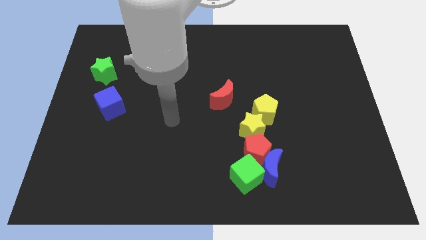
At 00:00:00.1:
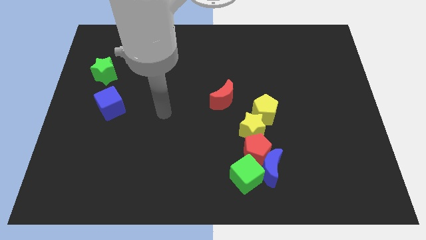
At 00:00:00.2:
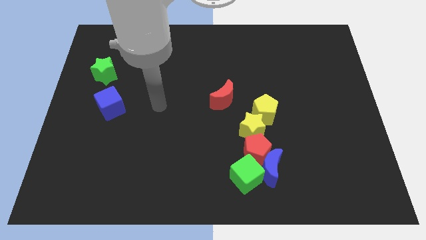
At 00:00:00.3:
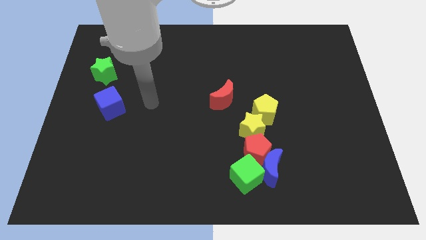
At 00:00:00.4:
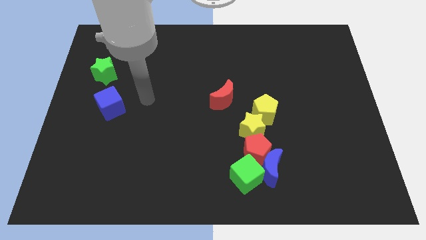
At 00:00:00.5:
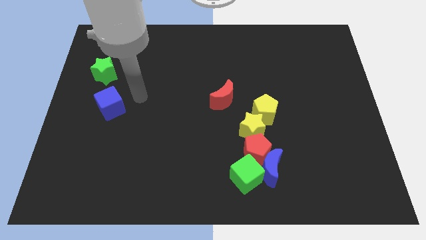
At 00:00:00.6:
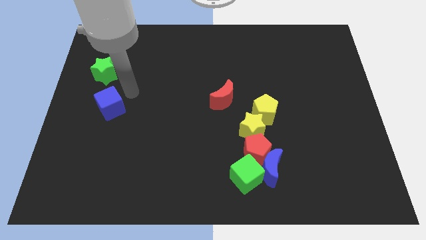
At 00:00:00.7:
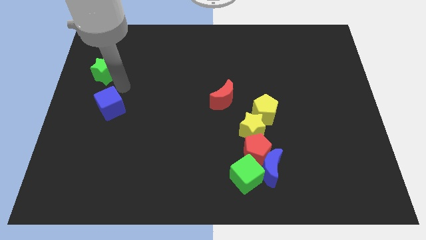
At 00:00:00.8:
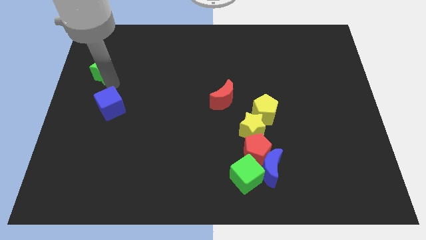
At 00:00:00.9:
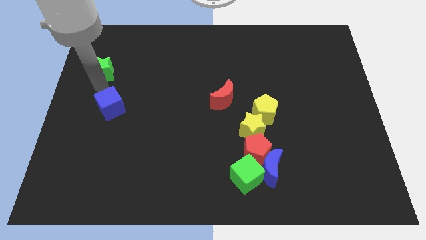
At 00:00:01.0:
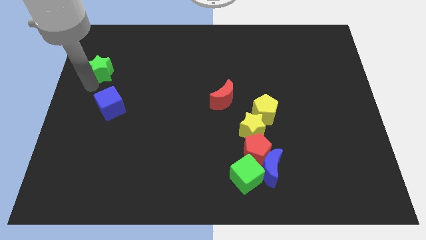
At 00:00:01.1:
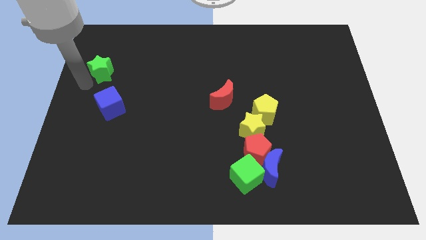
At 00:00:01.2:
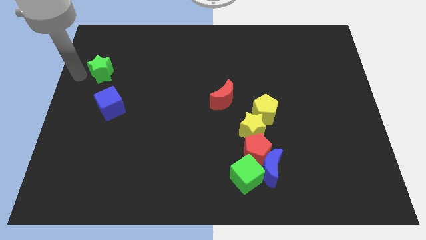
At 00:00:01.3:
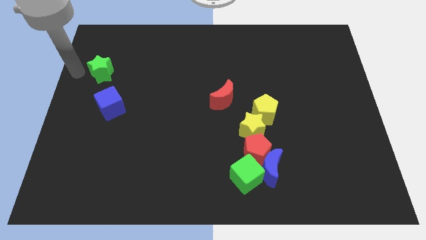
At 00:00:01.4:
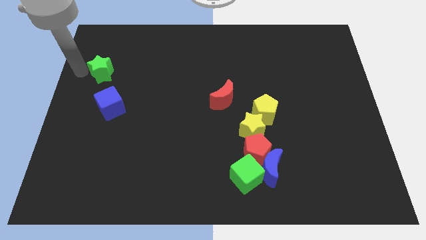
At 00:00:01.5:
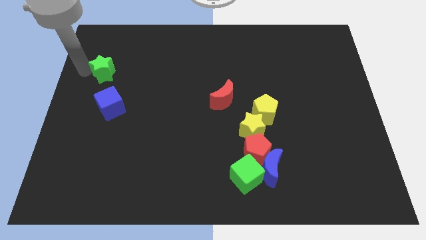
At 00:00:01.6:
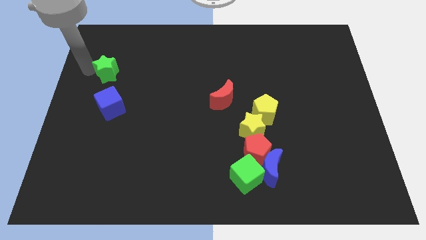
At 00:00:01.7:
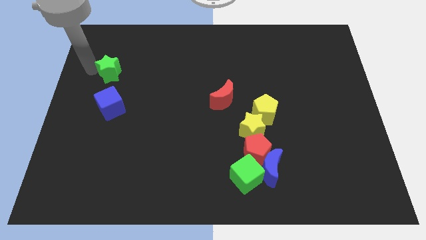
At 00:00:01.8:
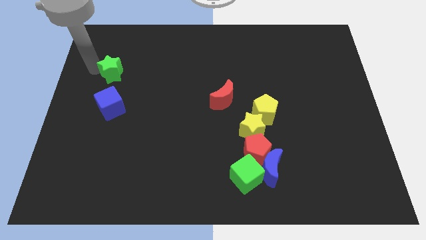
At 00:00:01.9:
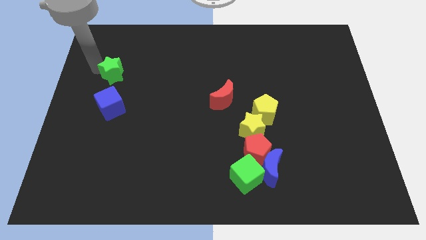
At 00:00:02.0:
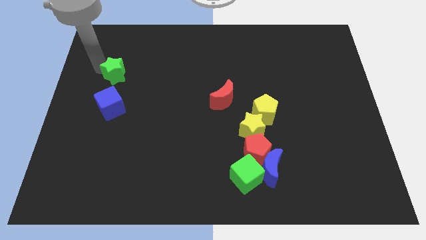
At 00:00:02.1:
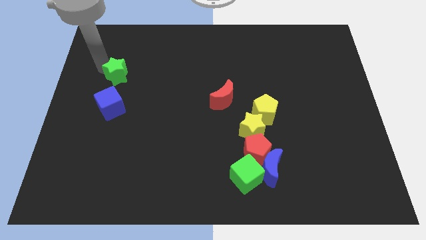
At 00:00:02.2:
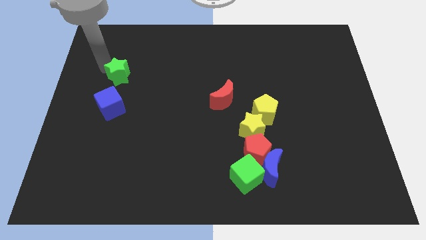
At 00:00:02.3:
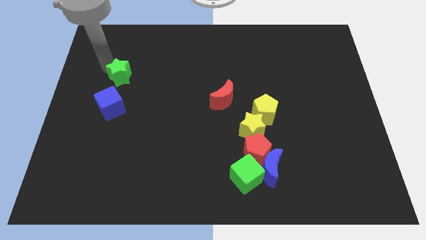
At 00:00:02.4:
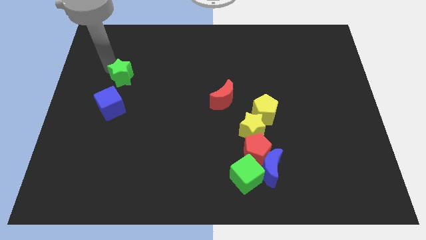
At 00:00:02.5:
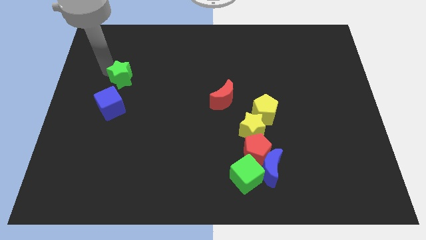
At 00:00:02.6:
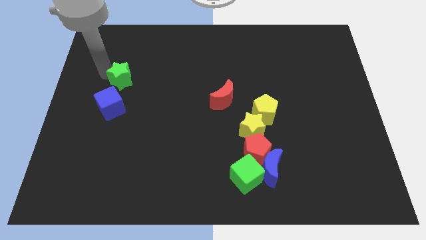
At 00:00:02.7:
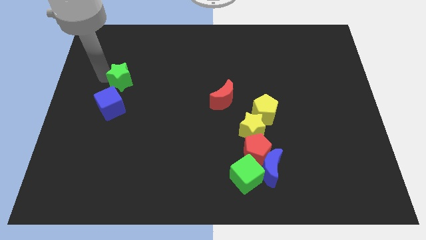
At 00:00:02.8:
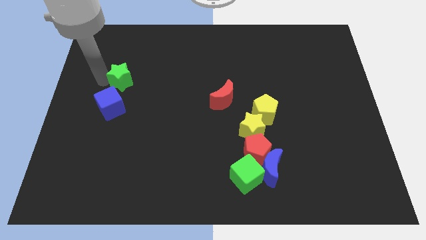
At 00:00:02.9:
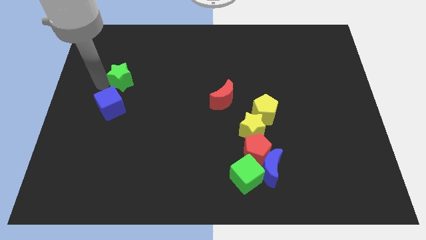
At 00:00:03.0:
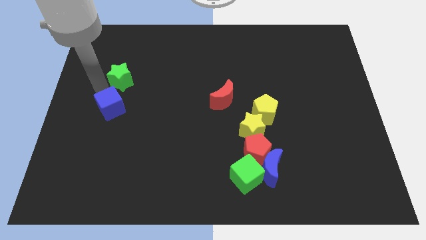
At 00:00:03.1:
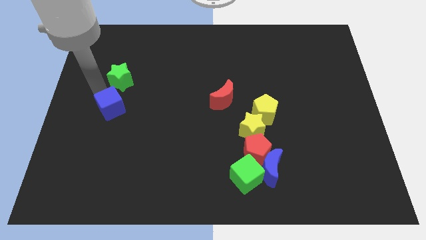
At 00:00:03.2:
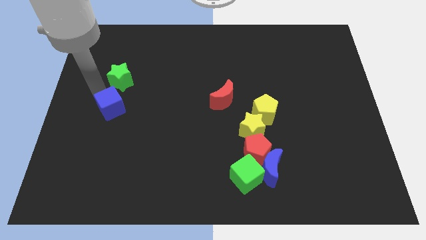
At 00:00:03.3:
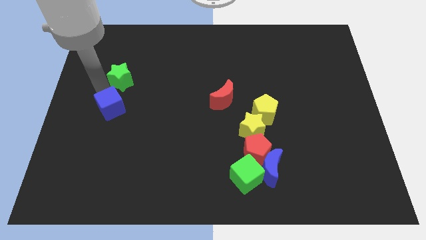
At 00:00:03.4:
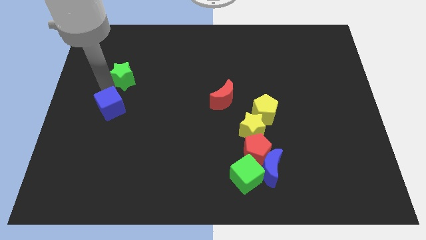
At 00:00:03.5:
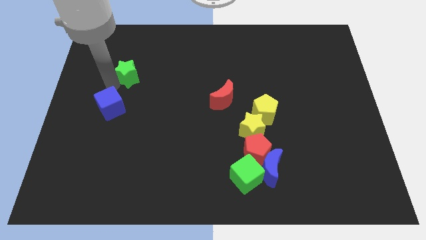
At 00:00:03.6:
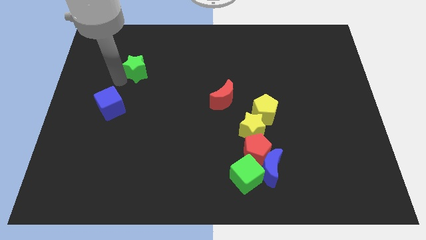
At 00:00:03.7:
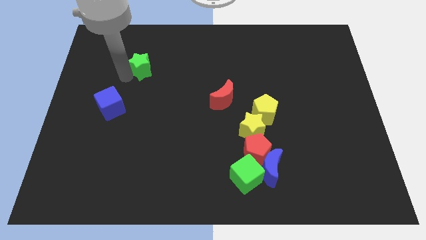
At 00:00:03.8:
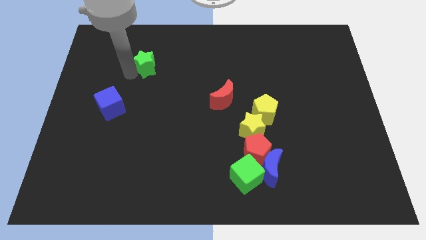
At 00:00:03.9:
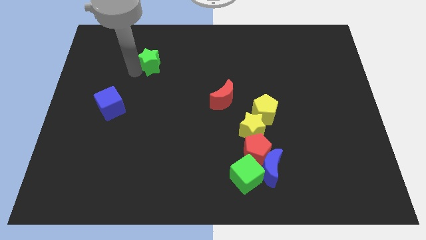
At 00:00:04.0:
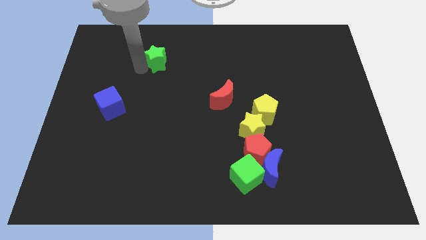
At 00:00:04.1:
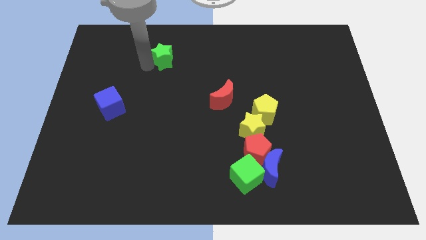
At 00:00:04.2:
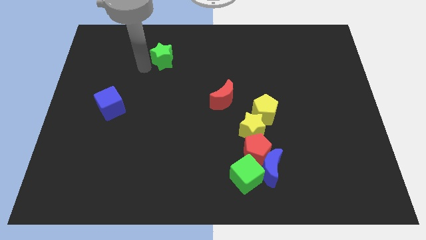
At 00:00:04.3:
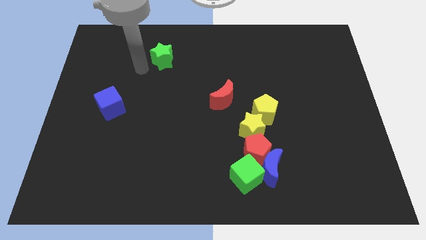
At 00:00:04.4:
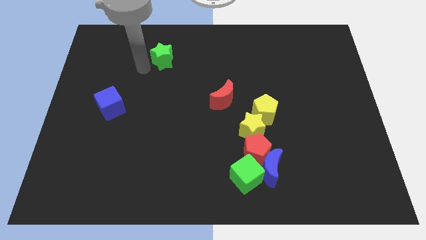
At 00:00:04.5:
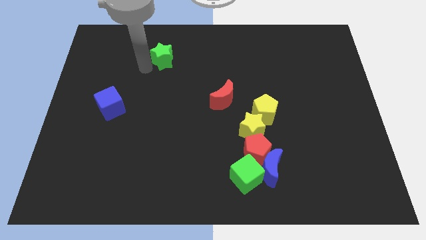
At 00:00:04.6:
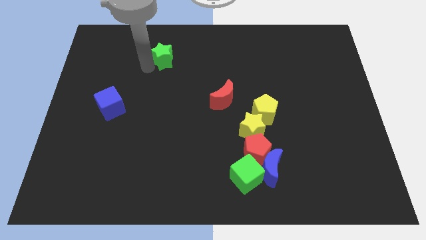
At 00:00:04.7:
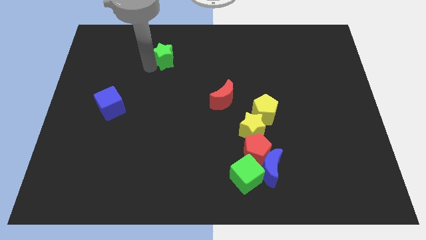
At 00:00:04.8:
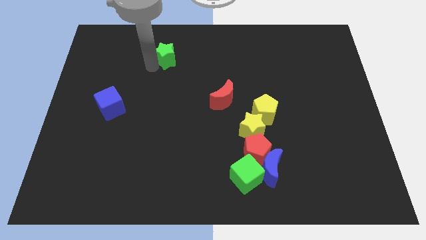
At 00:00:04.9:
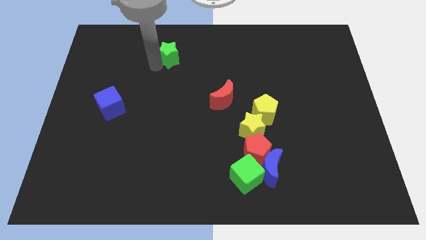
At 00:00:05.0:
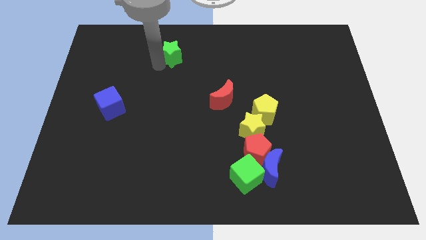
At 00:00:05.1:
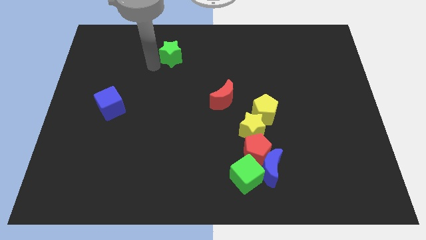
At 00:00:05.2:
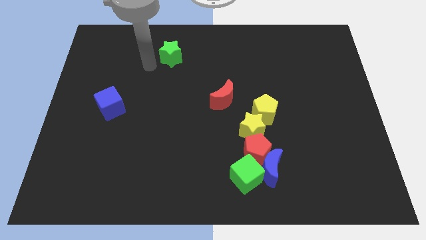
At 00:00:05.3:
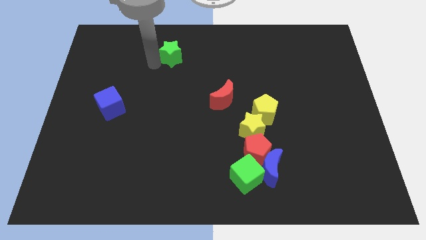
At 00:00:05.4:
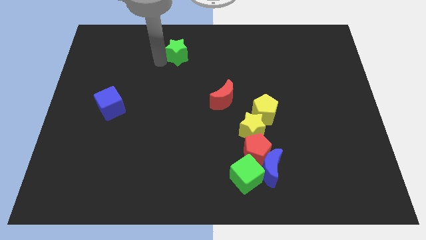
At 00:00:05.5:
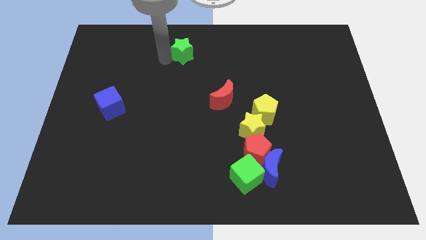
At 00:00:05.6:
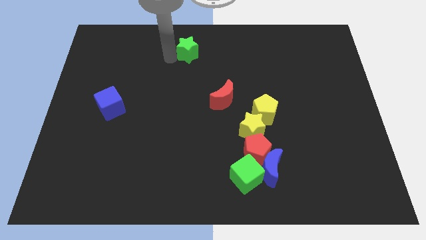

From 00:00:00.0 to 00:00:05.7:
put the green star to the top side

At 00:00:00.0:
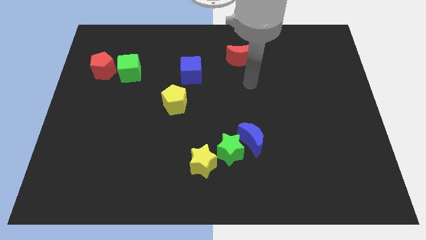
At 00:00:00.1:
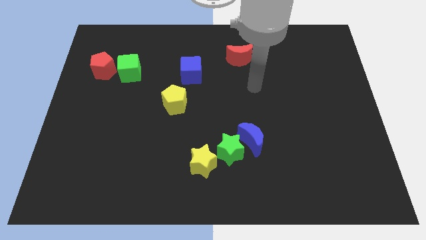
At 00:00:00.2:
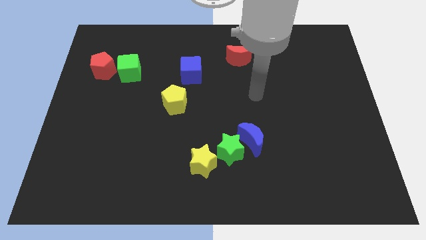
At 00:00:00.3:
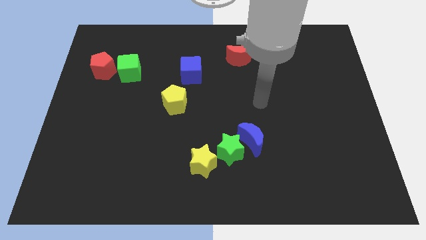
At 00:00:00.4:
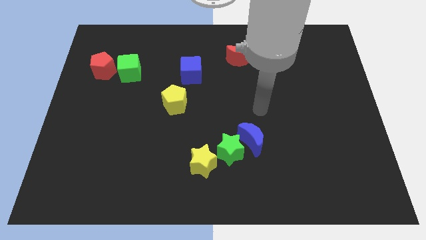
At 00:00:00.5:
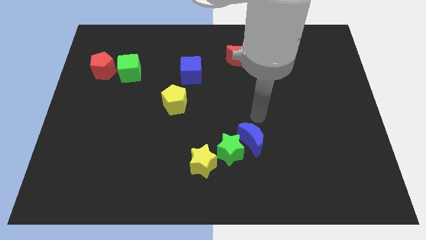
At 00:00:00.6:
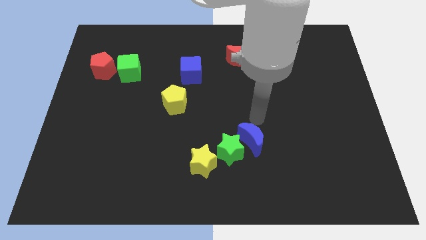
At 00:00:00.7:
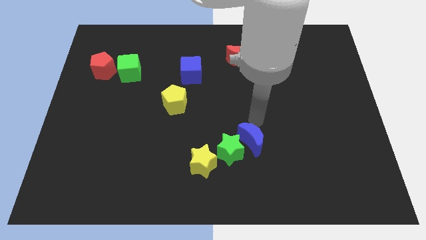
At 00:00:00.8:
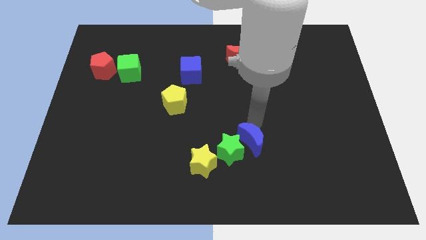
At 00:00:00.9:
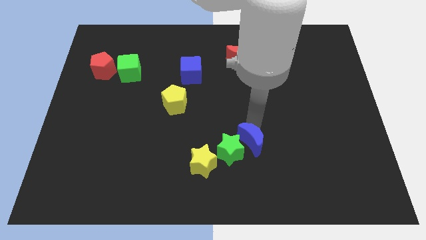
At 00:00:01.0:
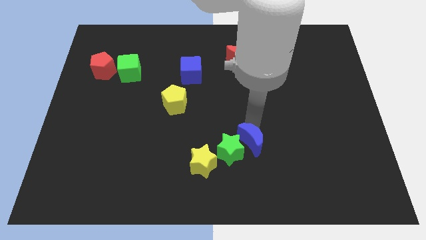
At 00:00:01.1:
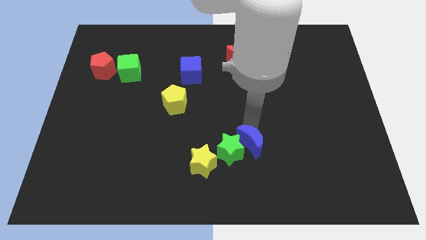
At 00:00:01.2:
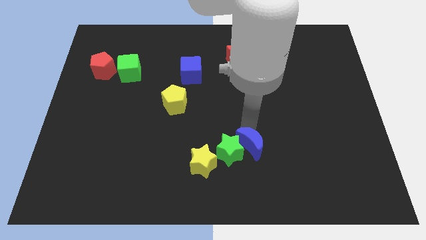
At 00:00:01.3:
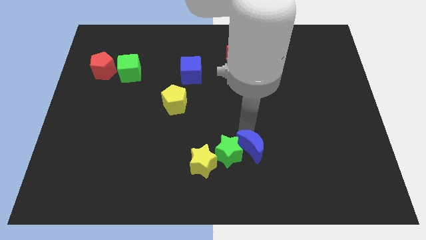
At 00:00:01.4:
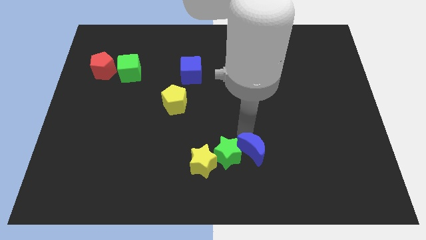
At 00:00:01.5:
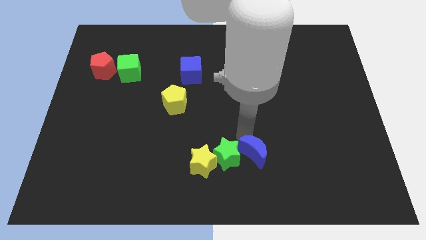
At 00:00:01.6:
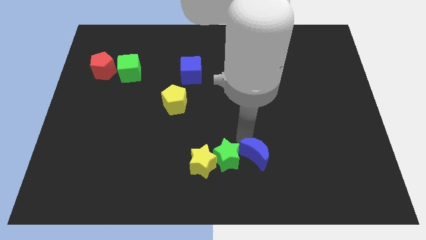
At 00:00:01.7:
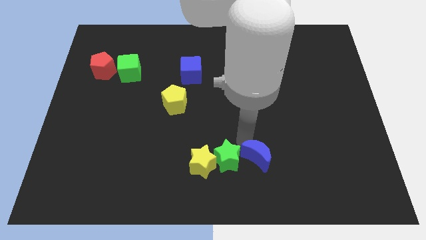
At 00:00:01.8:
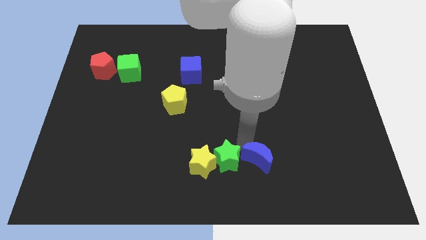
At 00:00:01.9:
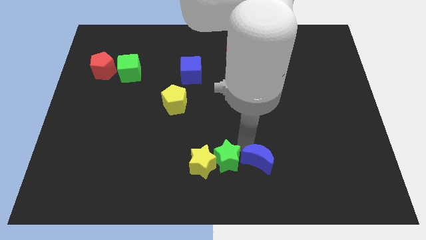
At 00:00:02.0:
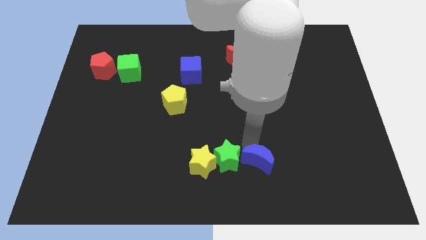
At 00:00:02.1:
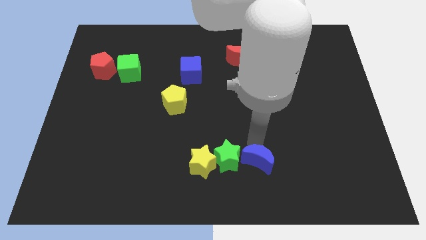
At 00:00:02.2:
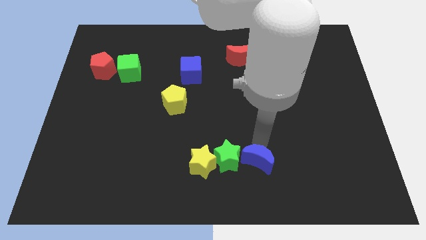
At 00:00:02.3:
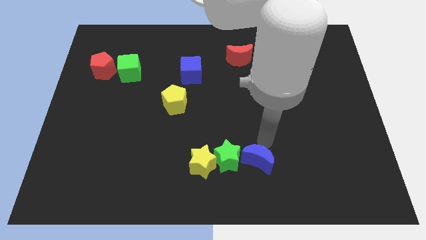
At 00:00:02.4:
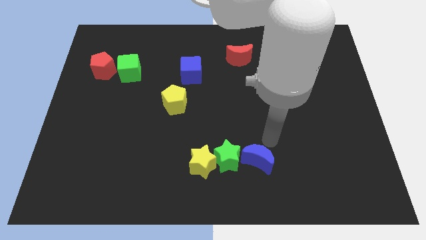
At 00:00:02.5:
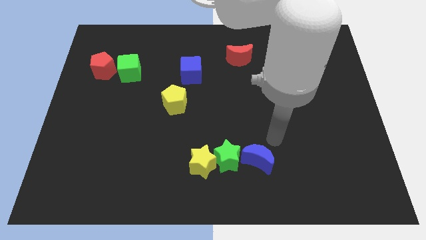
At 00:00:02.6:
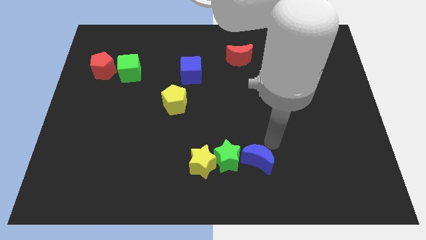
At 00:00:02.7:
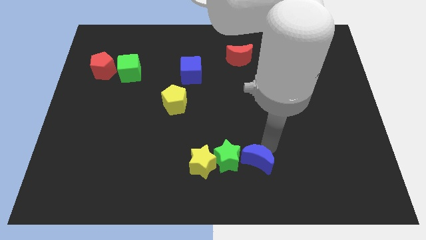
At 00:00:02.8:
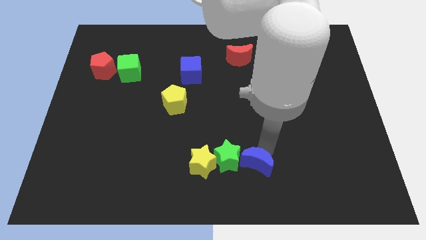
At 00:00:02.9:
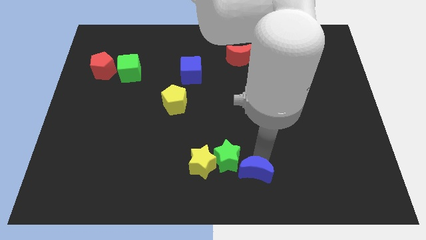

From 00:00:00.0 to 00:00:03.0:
push the blue moon to the bottom side
